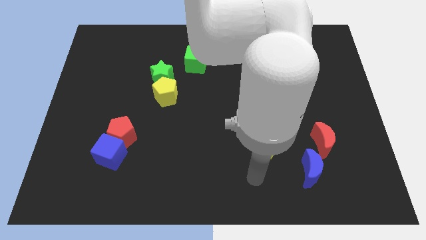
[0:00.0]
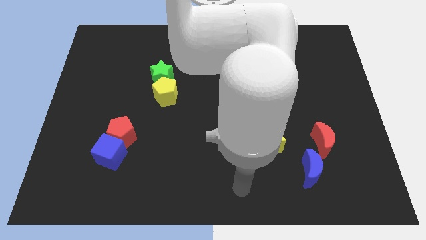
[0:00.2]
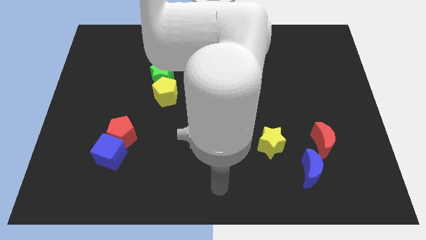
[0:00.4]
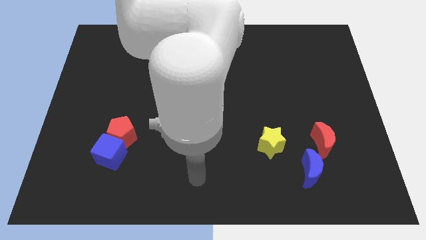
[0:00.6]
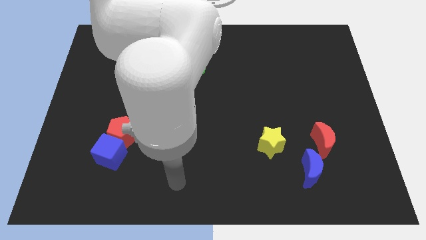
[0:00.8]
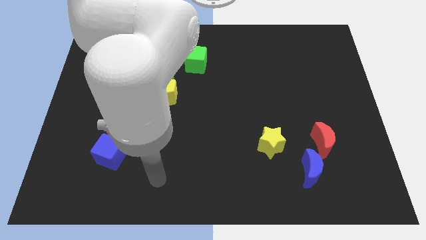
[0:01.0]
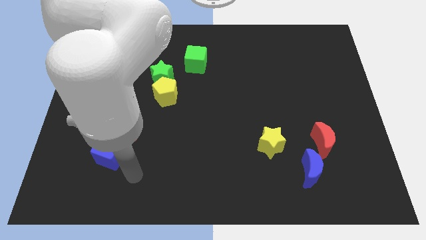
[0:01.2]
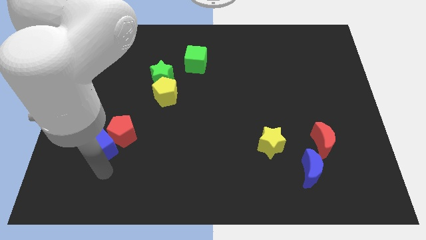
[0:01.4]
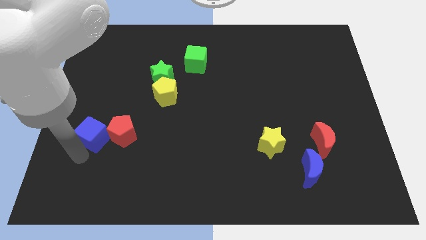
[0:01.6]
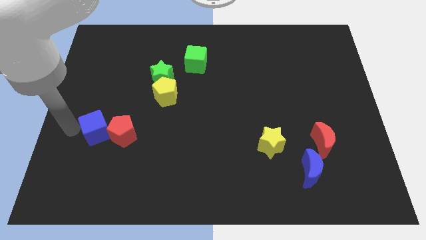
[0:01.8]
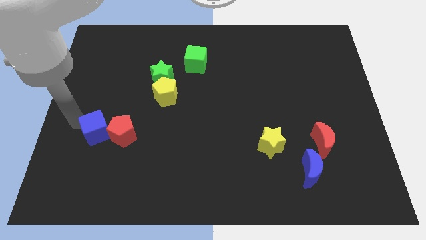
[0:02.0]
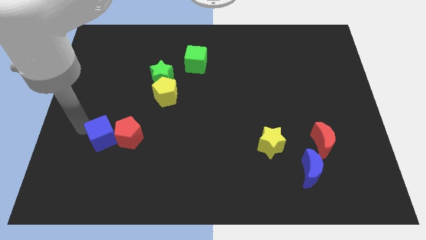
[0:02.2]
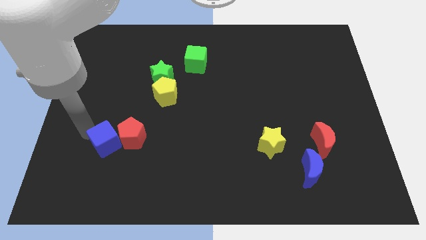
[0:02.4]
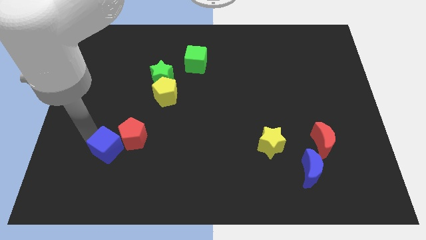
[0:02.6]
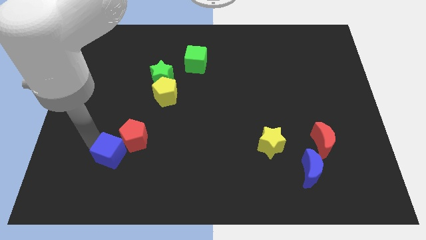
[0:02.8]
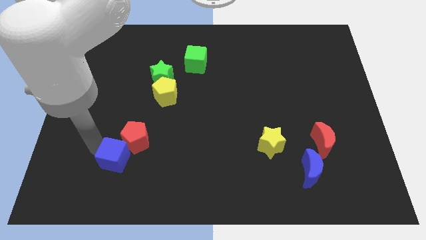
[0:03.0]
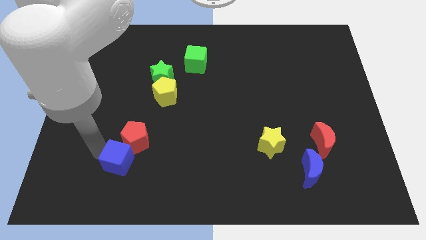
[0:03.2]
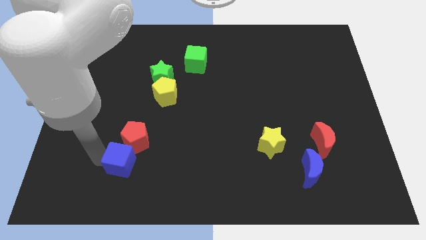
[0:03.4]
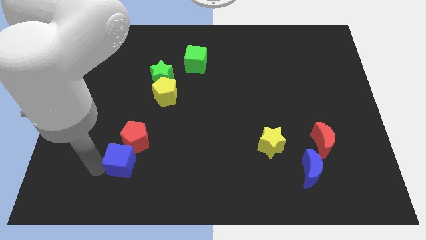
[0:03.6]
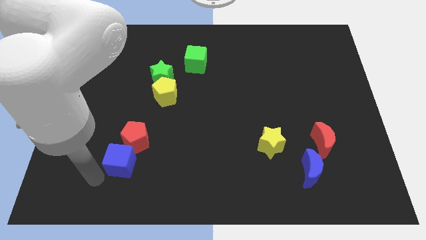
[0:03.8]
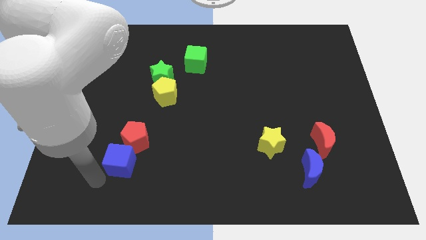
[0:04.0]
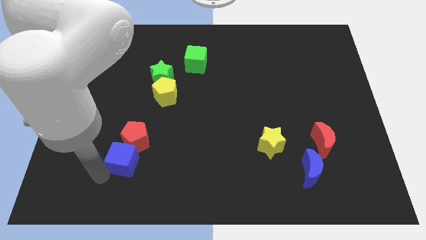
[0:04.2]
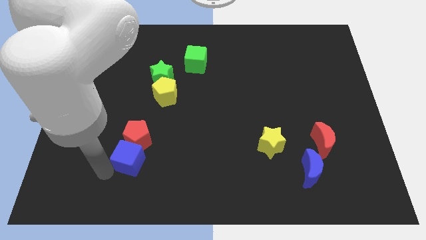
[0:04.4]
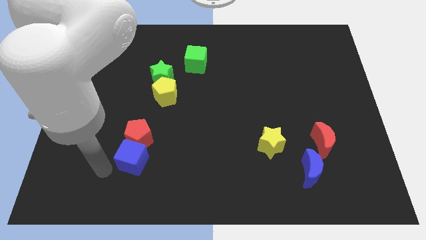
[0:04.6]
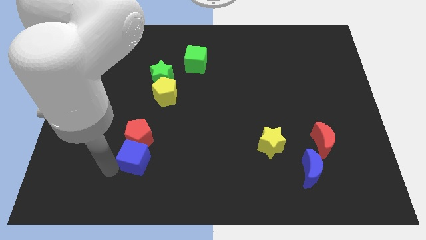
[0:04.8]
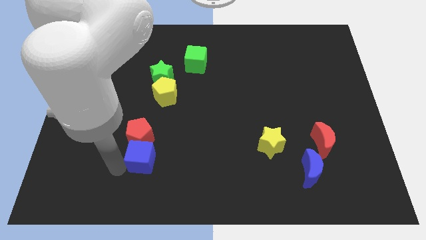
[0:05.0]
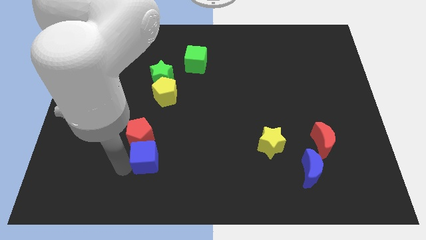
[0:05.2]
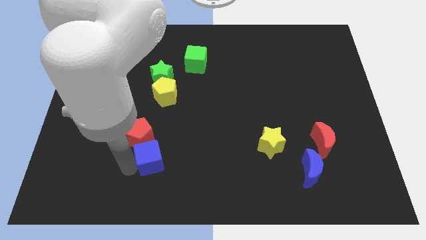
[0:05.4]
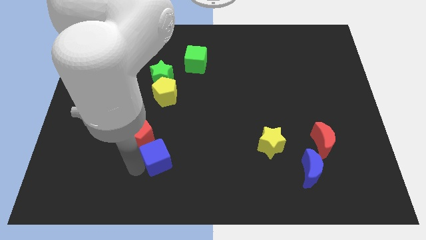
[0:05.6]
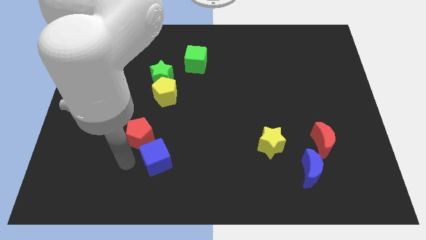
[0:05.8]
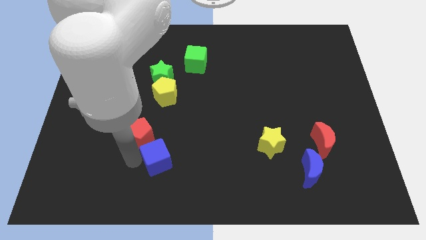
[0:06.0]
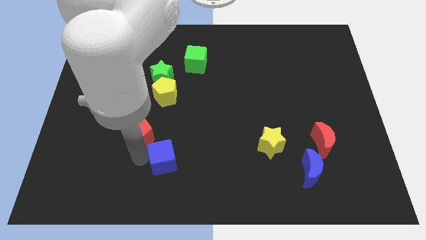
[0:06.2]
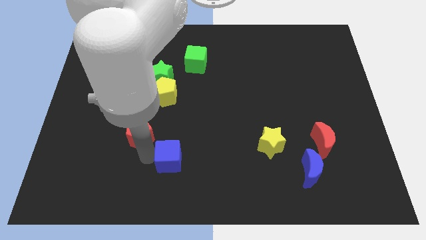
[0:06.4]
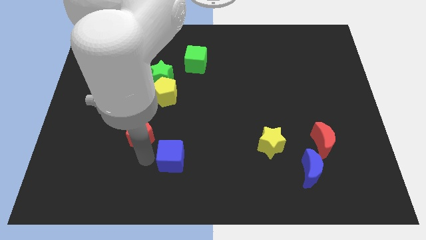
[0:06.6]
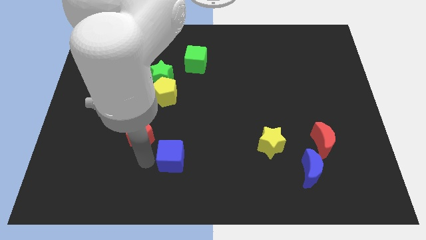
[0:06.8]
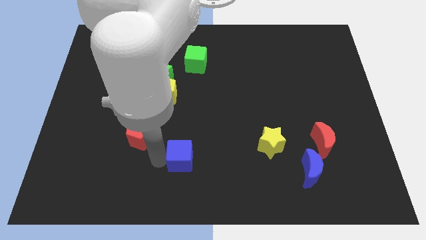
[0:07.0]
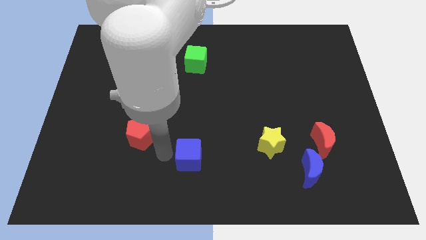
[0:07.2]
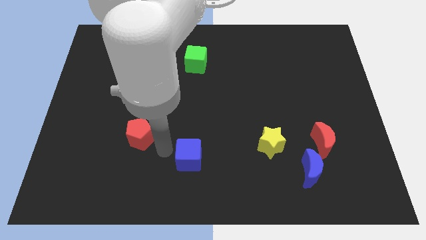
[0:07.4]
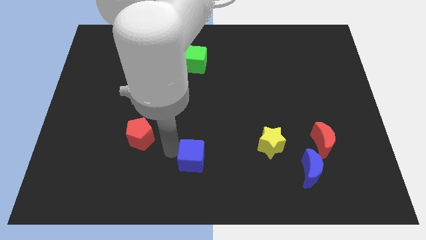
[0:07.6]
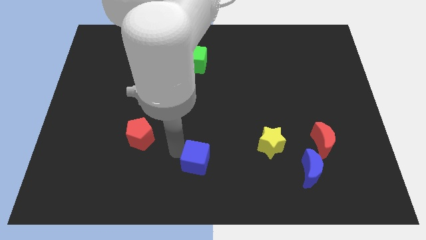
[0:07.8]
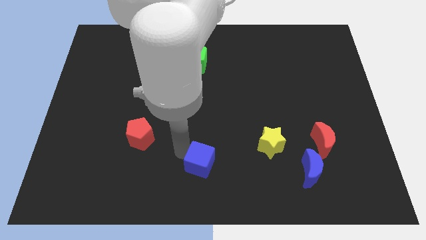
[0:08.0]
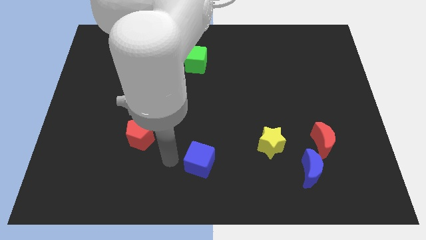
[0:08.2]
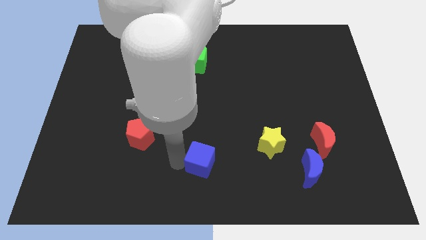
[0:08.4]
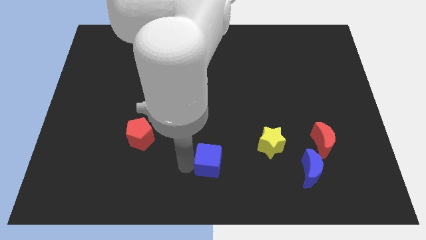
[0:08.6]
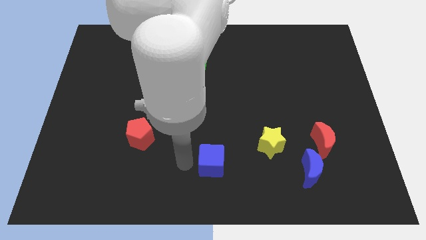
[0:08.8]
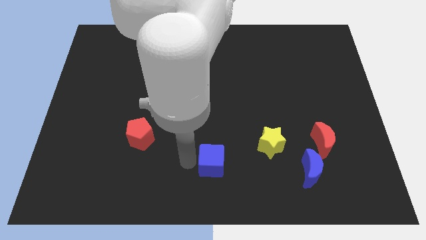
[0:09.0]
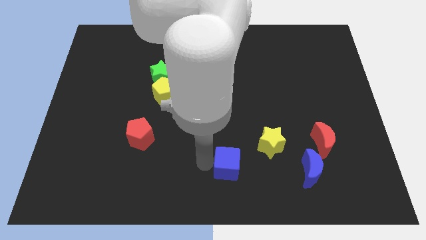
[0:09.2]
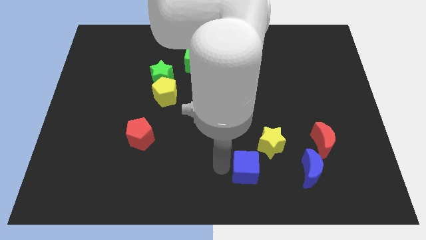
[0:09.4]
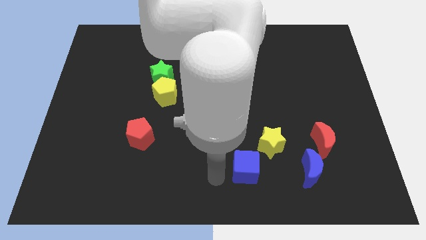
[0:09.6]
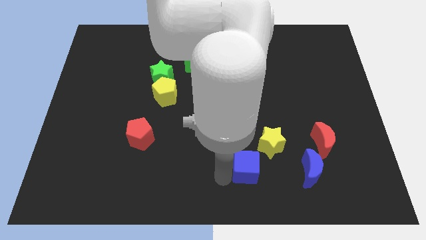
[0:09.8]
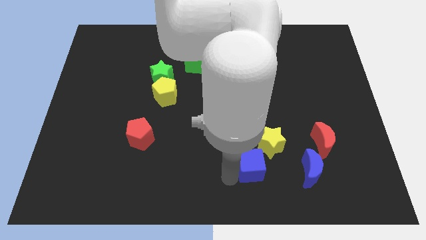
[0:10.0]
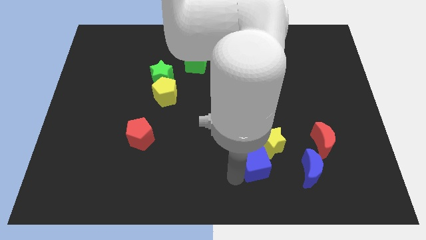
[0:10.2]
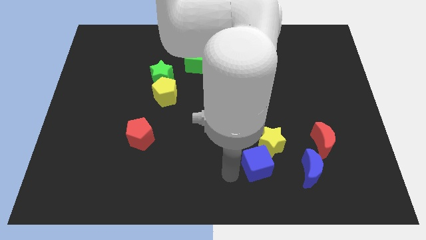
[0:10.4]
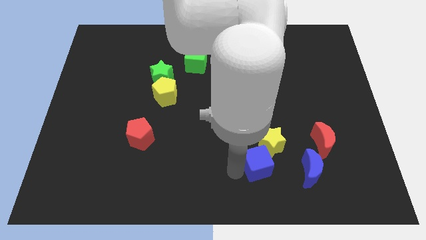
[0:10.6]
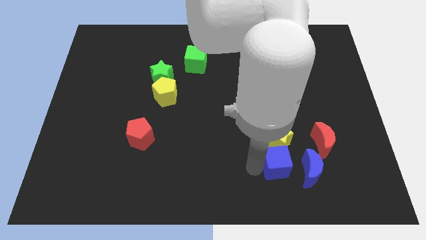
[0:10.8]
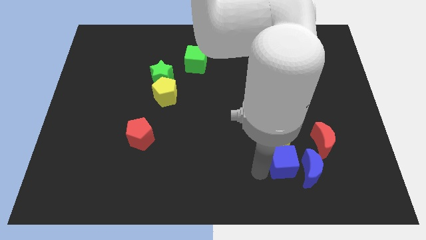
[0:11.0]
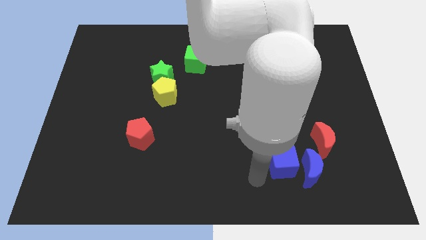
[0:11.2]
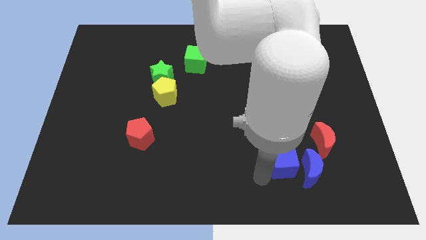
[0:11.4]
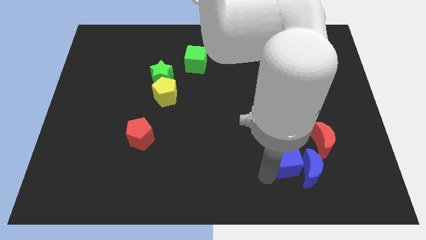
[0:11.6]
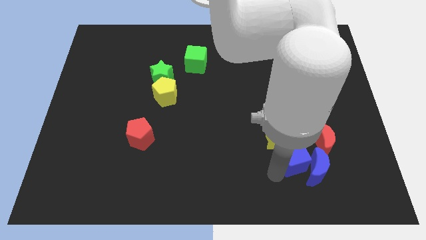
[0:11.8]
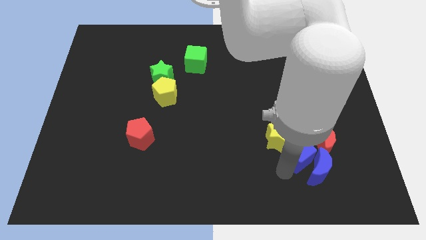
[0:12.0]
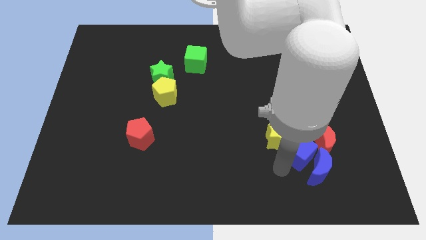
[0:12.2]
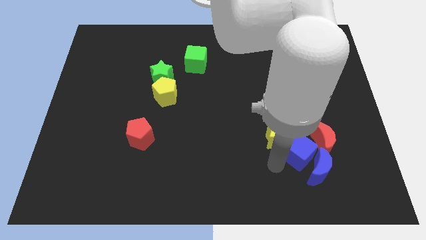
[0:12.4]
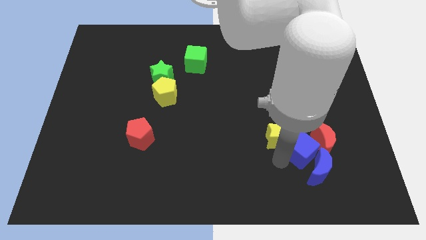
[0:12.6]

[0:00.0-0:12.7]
move the blue cube next to the red moon

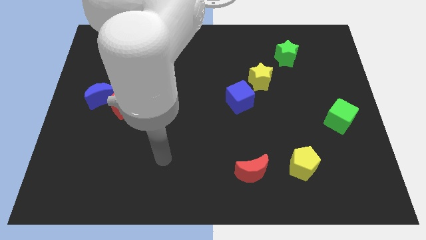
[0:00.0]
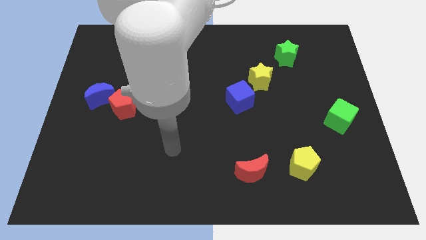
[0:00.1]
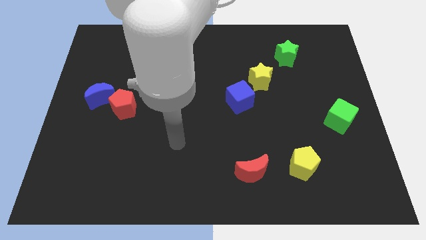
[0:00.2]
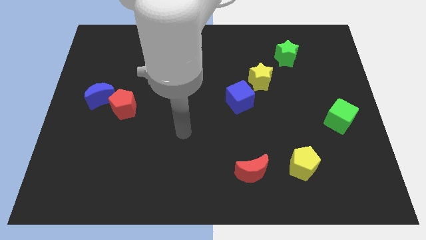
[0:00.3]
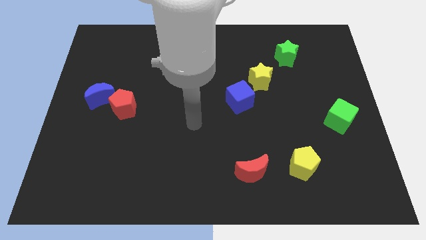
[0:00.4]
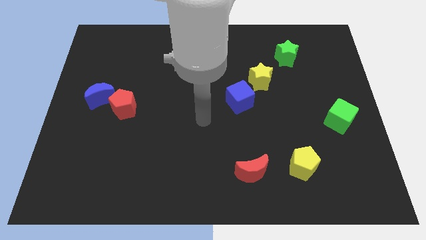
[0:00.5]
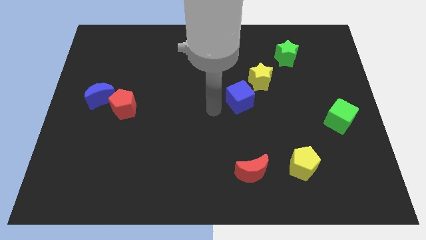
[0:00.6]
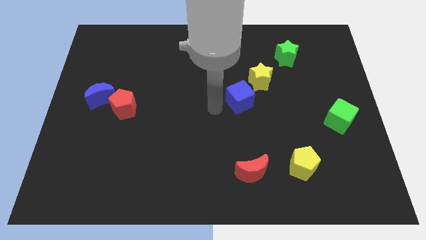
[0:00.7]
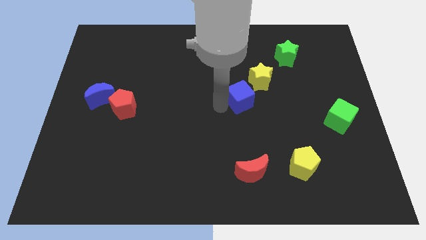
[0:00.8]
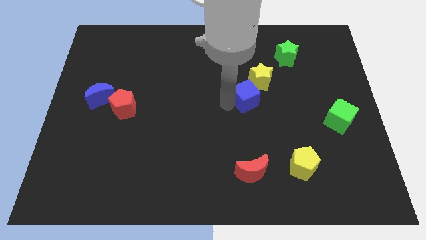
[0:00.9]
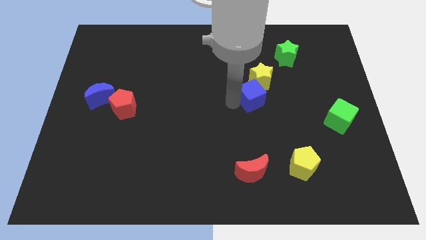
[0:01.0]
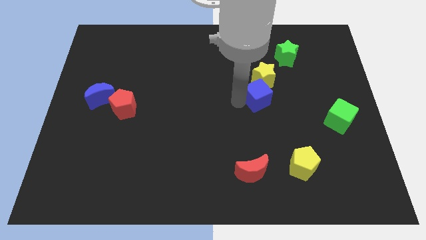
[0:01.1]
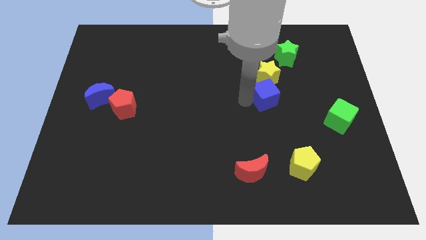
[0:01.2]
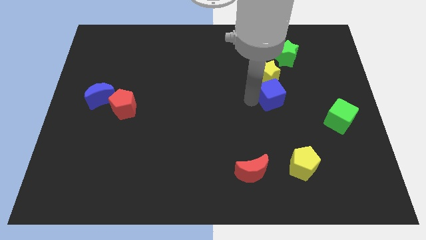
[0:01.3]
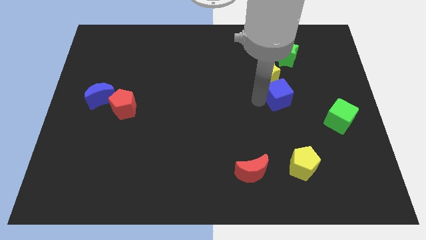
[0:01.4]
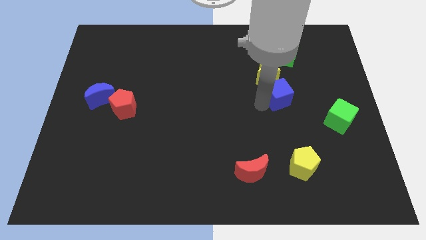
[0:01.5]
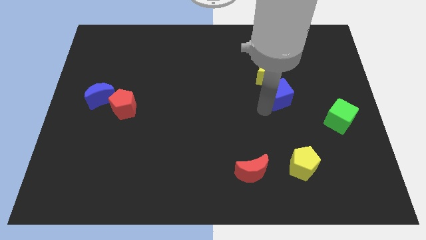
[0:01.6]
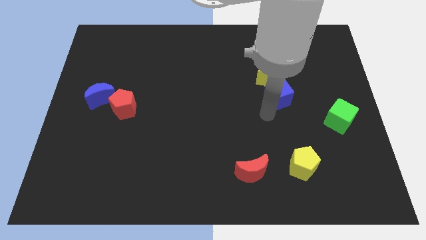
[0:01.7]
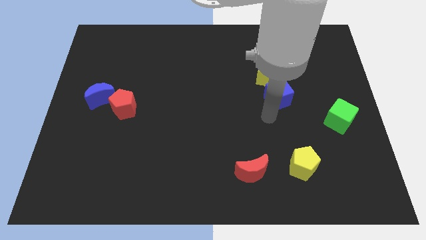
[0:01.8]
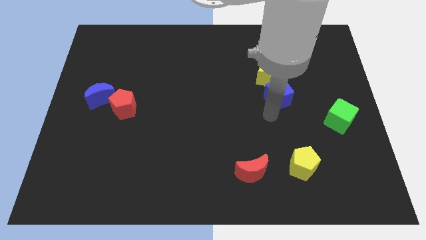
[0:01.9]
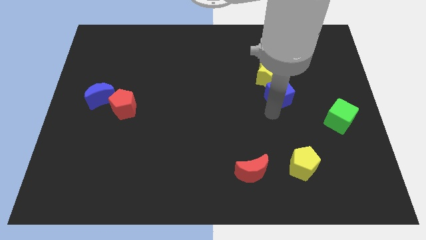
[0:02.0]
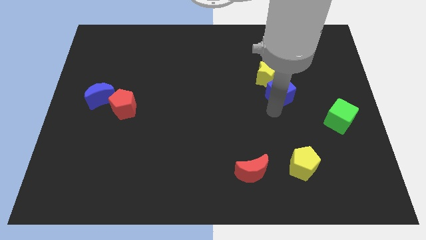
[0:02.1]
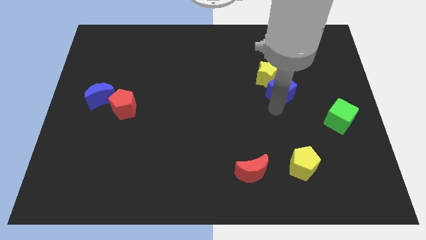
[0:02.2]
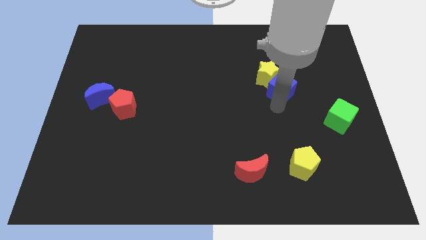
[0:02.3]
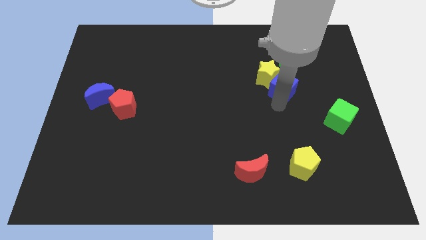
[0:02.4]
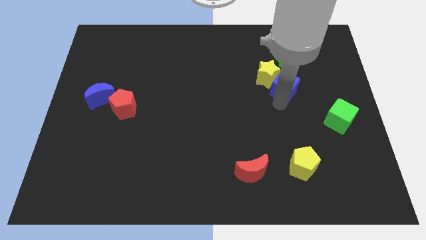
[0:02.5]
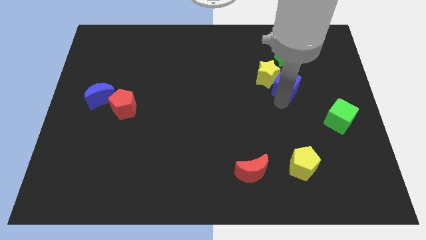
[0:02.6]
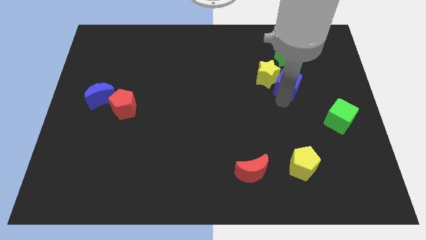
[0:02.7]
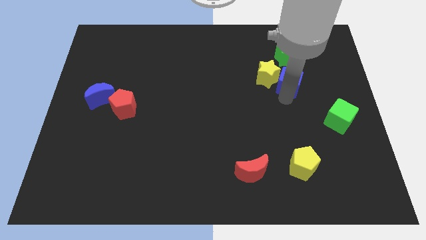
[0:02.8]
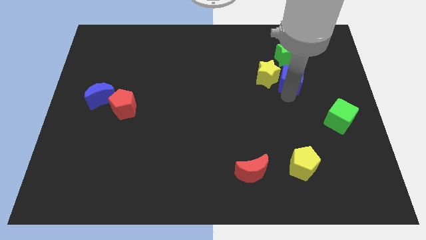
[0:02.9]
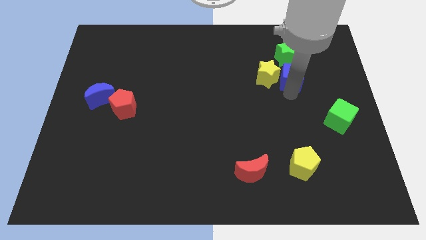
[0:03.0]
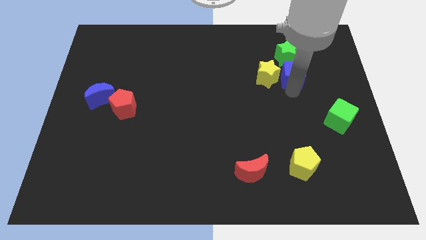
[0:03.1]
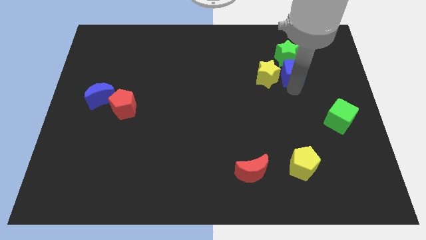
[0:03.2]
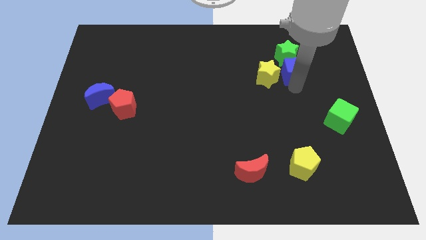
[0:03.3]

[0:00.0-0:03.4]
move the blue cube next to the green star
